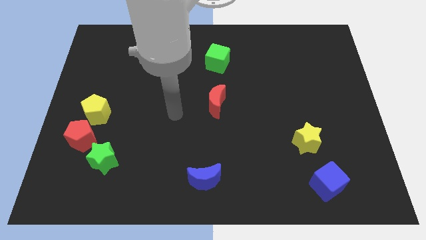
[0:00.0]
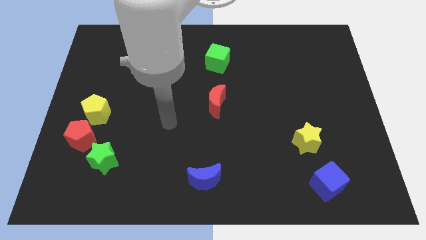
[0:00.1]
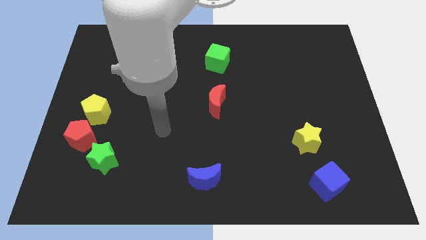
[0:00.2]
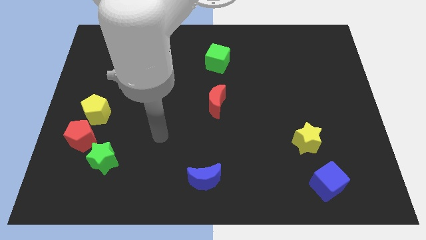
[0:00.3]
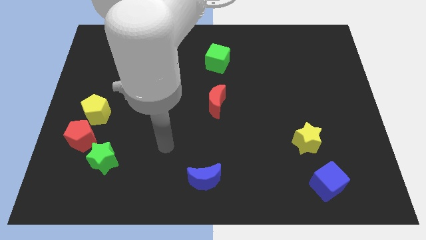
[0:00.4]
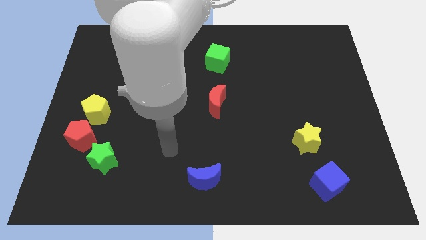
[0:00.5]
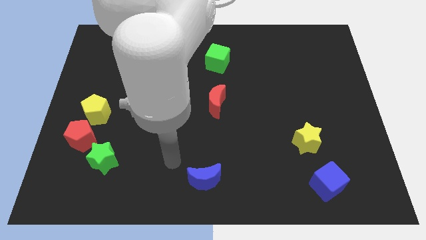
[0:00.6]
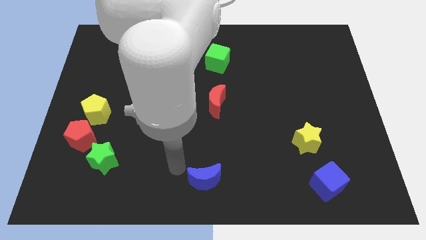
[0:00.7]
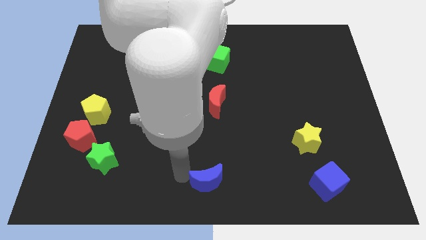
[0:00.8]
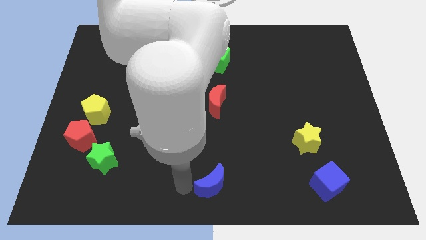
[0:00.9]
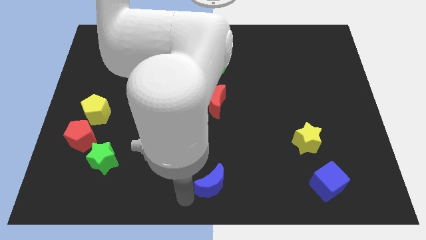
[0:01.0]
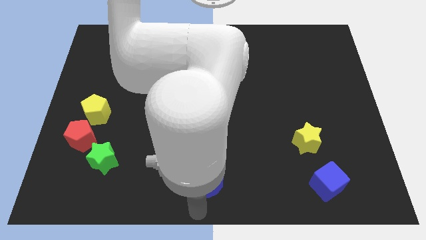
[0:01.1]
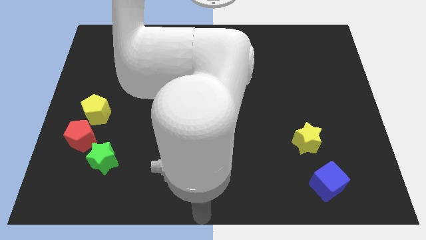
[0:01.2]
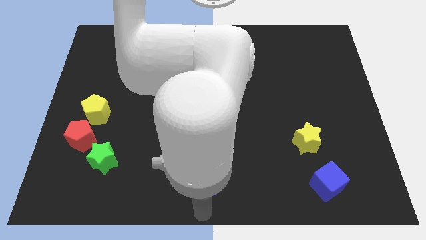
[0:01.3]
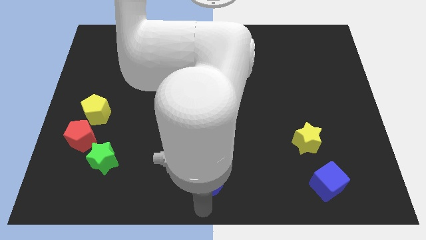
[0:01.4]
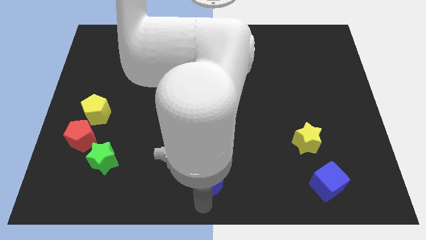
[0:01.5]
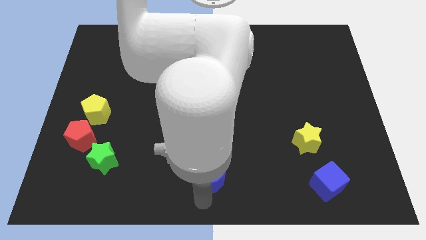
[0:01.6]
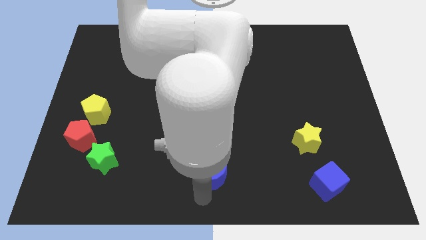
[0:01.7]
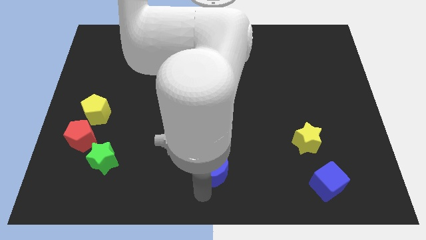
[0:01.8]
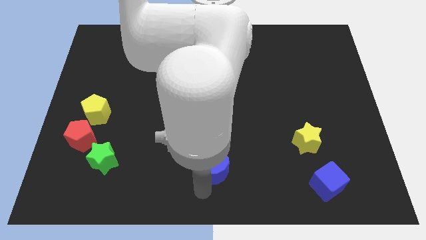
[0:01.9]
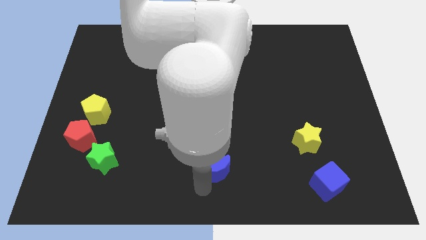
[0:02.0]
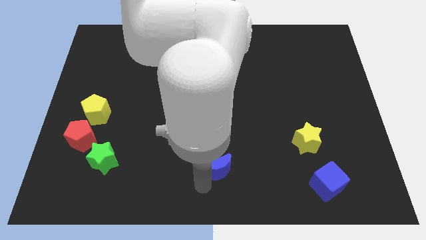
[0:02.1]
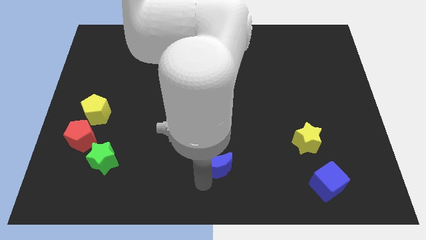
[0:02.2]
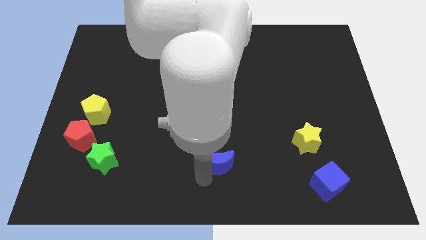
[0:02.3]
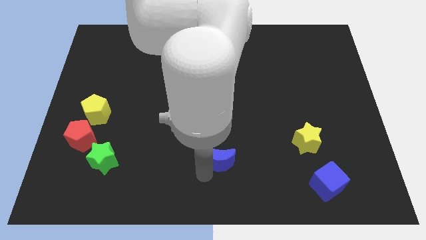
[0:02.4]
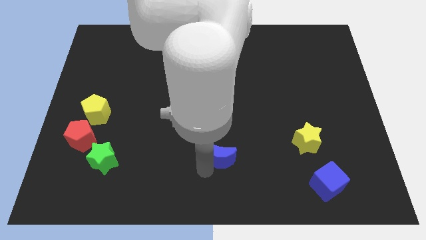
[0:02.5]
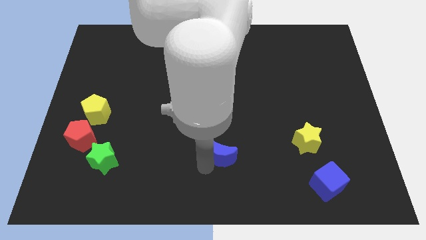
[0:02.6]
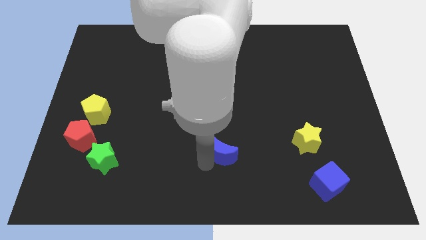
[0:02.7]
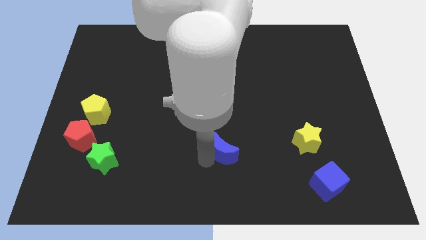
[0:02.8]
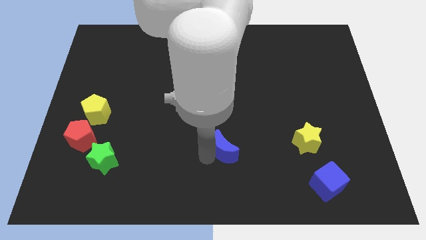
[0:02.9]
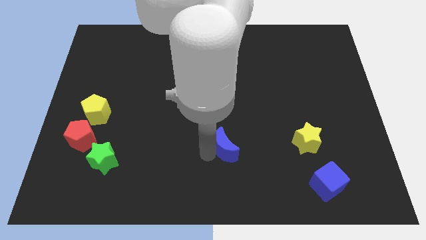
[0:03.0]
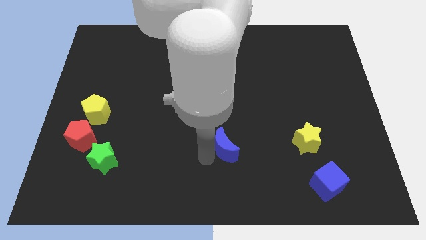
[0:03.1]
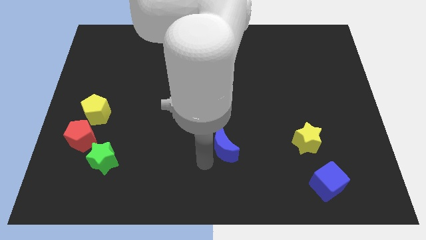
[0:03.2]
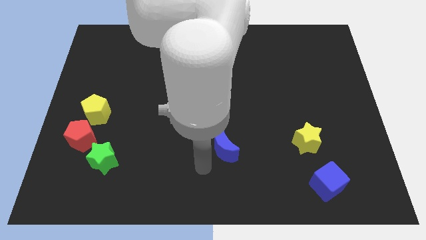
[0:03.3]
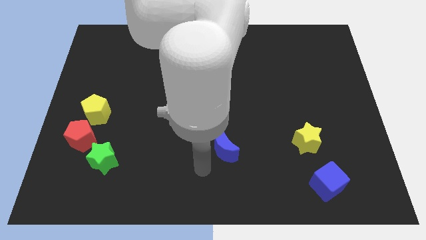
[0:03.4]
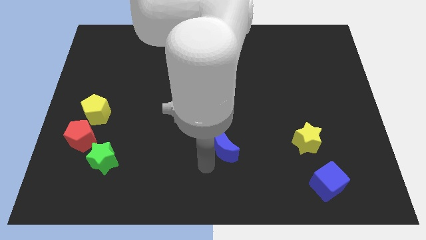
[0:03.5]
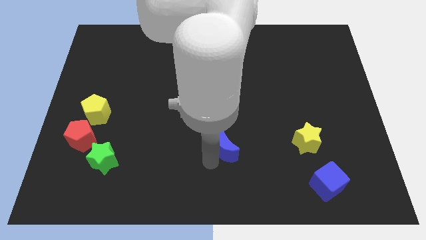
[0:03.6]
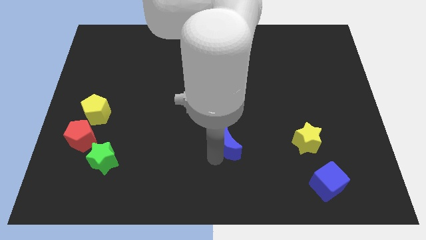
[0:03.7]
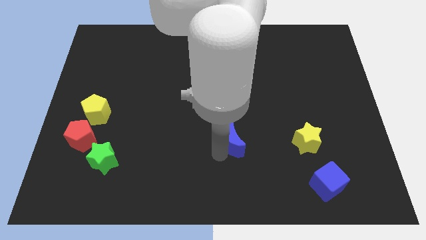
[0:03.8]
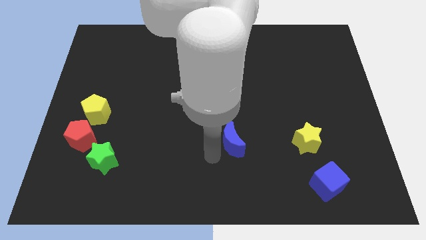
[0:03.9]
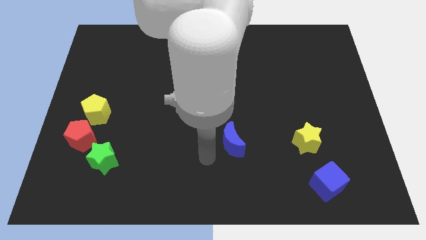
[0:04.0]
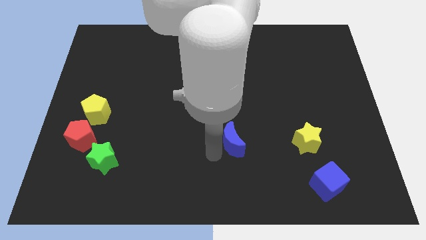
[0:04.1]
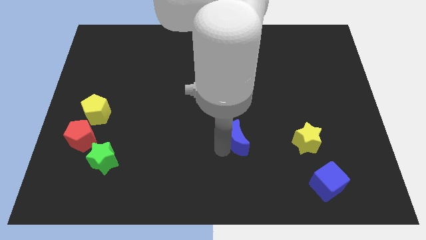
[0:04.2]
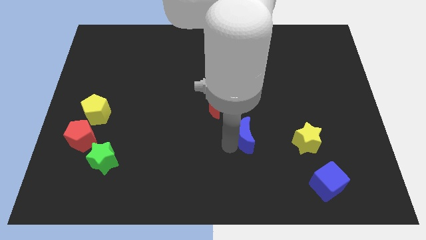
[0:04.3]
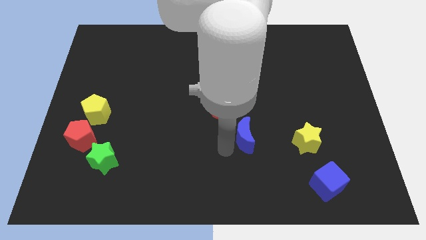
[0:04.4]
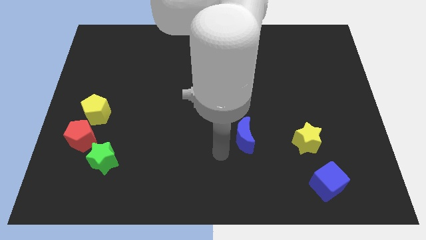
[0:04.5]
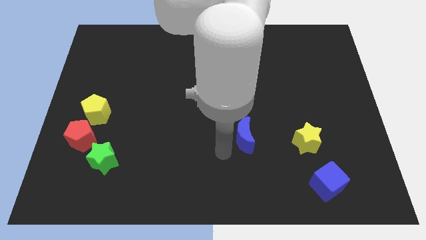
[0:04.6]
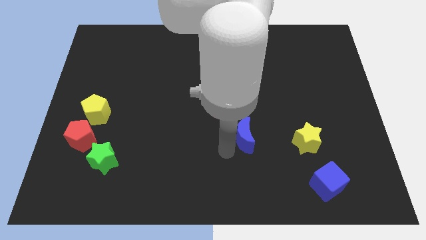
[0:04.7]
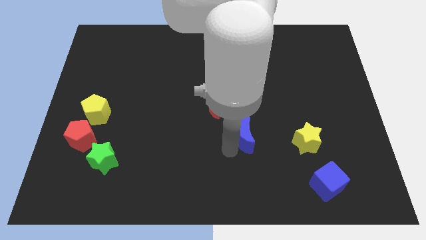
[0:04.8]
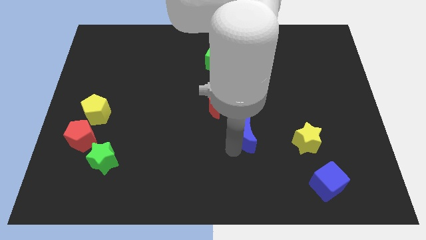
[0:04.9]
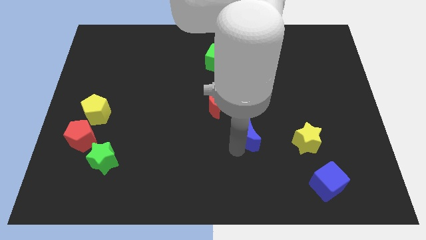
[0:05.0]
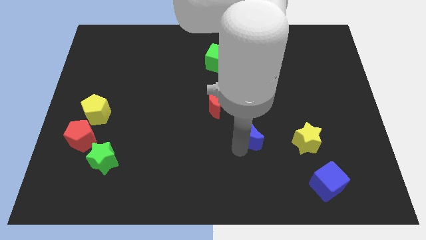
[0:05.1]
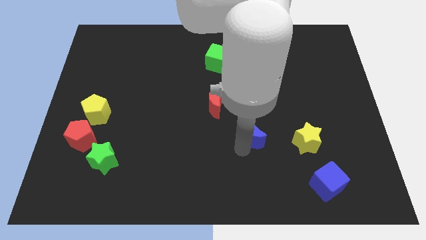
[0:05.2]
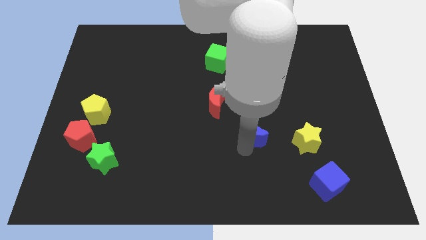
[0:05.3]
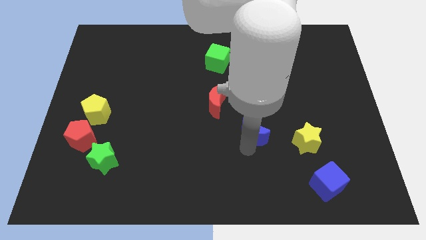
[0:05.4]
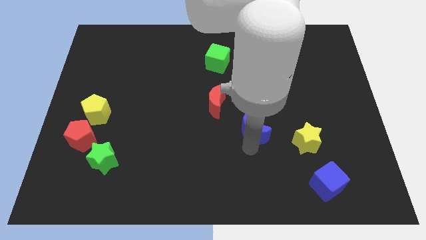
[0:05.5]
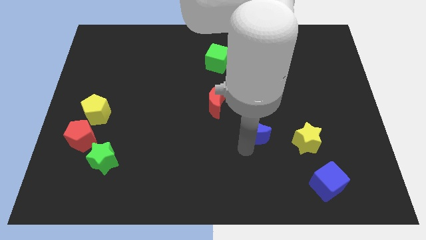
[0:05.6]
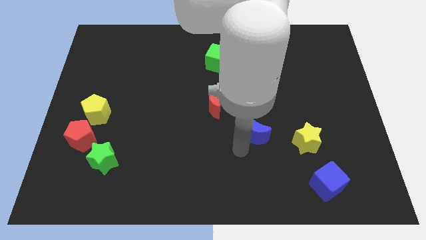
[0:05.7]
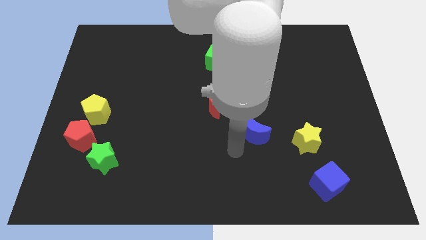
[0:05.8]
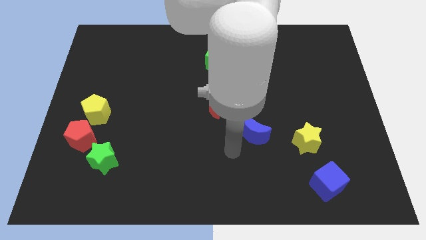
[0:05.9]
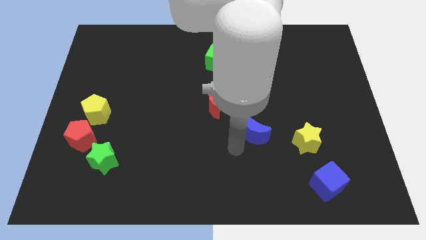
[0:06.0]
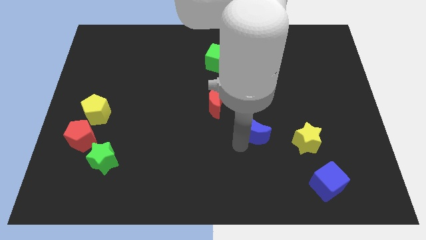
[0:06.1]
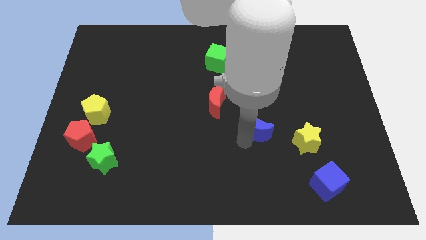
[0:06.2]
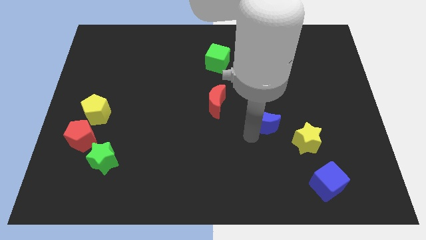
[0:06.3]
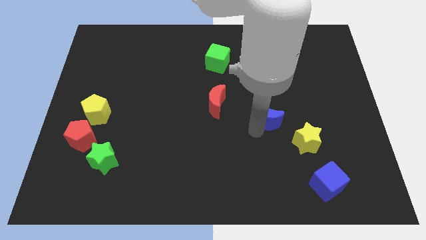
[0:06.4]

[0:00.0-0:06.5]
move the blue moon upwards and then to the right

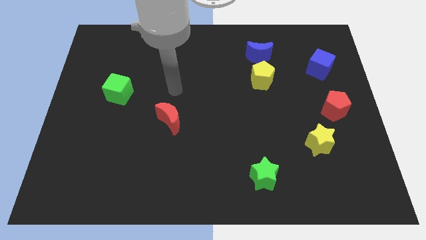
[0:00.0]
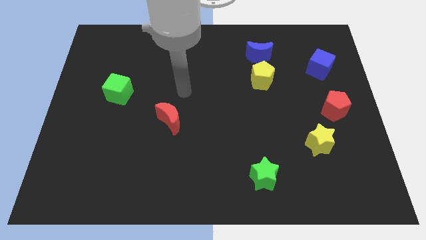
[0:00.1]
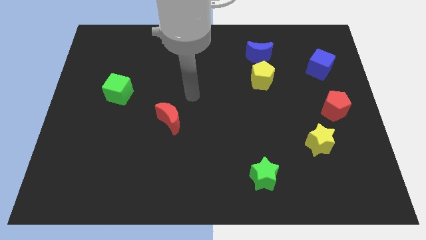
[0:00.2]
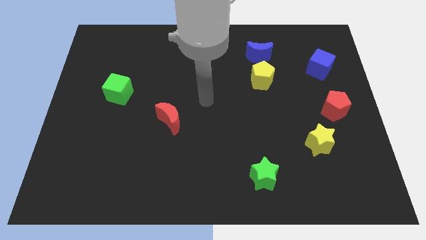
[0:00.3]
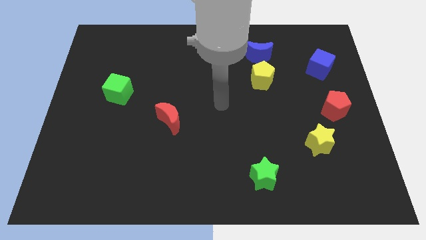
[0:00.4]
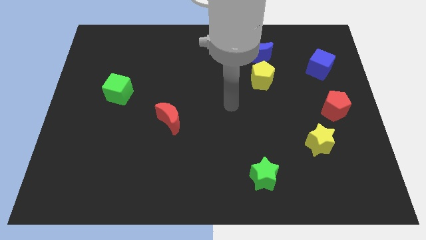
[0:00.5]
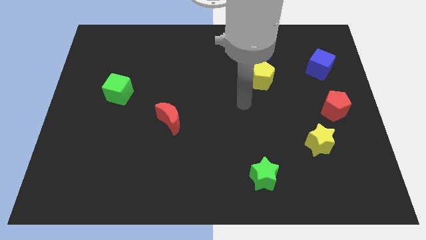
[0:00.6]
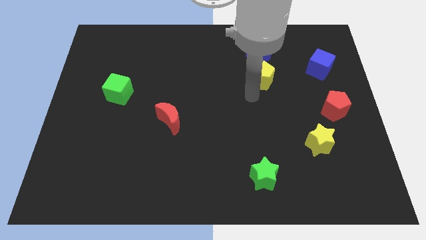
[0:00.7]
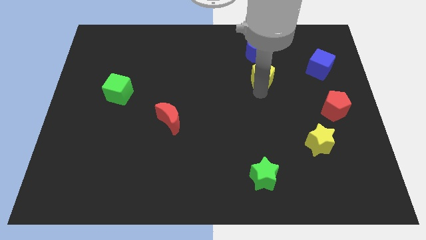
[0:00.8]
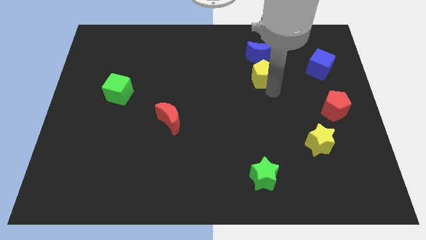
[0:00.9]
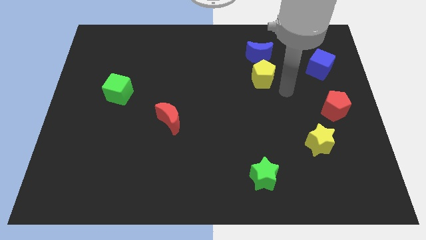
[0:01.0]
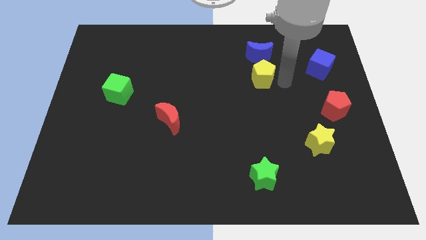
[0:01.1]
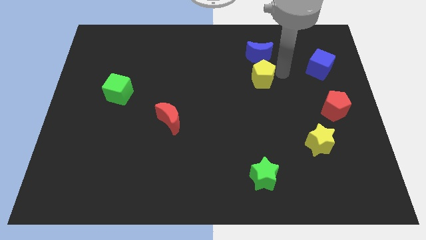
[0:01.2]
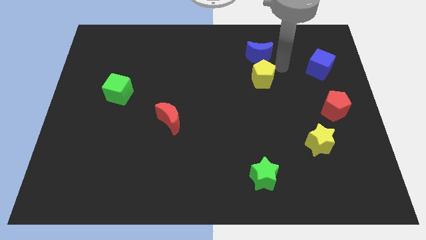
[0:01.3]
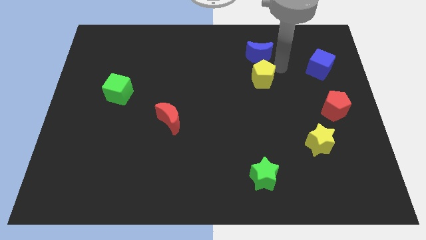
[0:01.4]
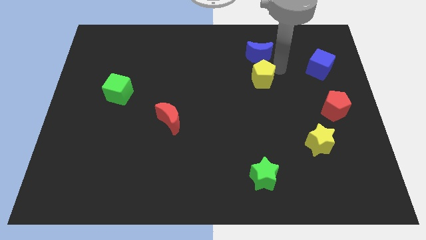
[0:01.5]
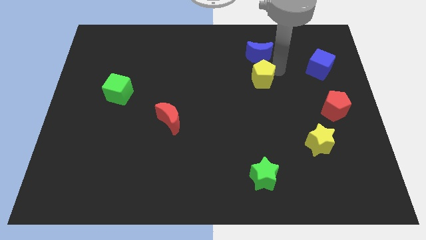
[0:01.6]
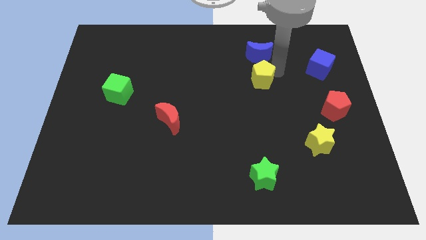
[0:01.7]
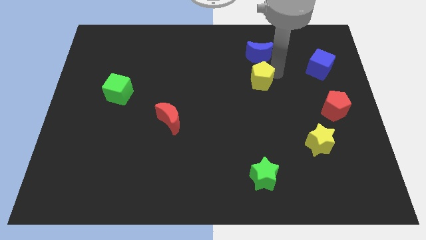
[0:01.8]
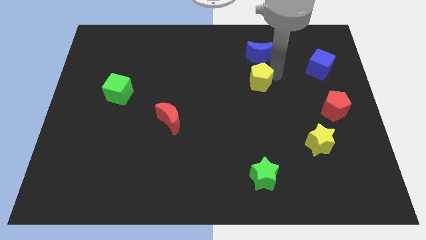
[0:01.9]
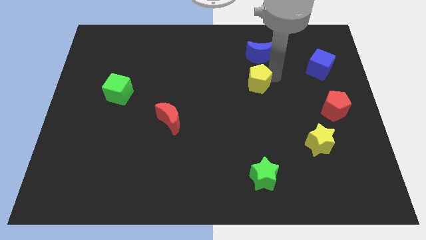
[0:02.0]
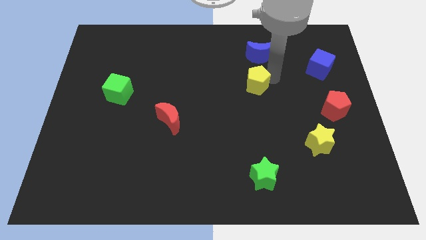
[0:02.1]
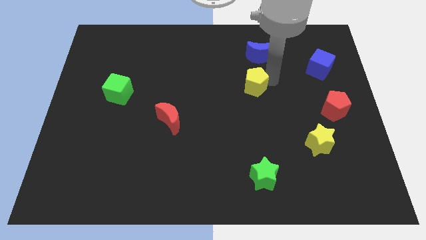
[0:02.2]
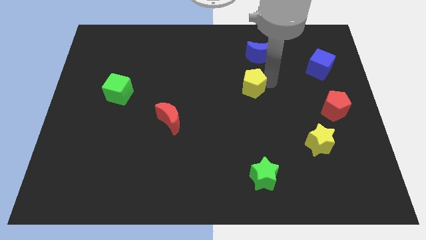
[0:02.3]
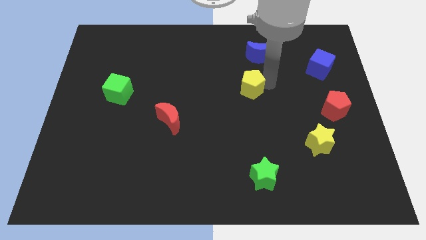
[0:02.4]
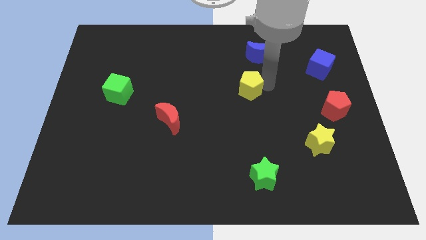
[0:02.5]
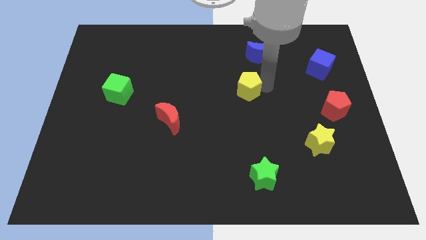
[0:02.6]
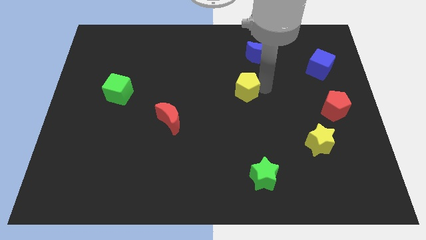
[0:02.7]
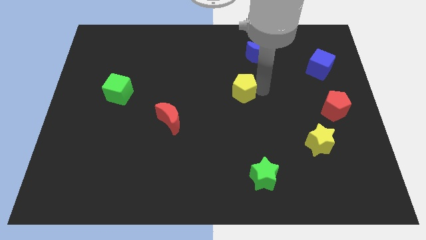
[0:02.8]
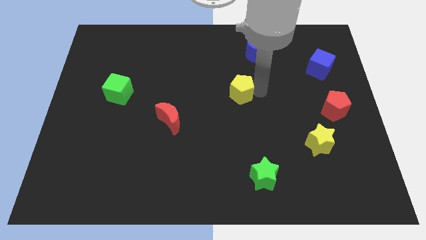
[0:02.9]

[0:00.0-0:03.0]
slide the yellow pentagon diagonally down and left a little
